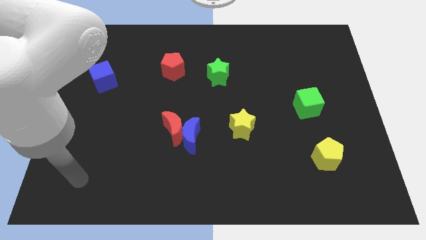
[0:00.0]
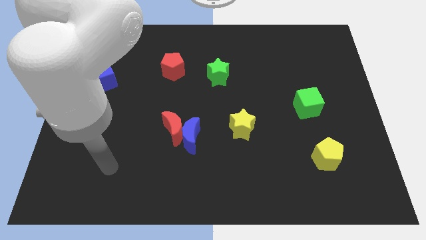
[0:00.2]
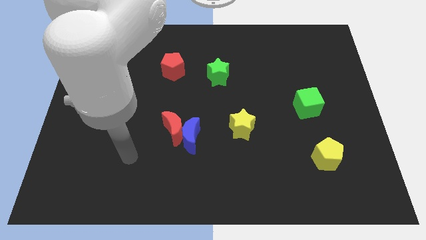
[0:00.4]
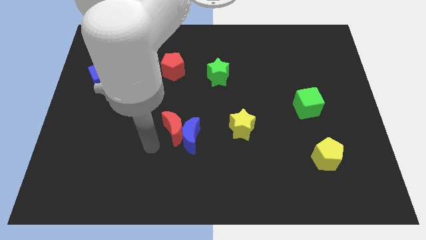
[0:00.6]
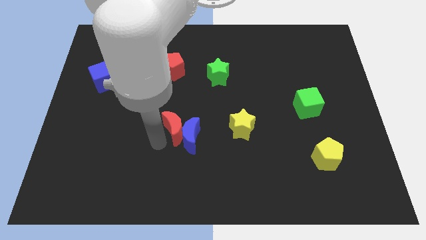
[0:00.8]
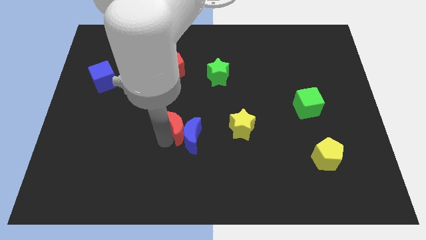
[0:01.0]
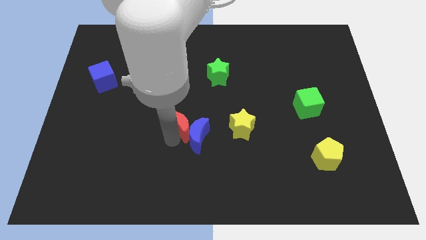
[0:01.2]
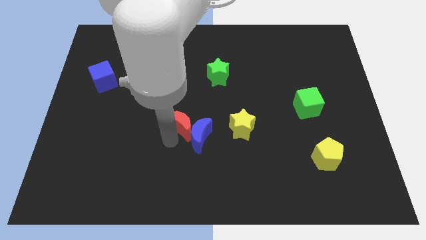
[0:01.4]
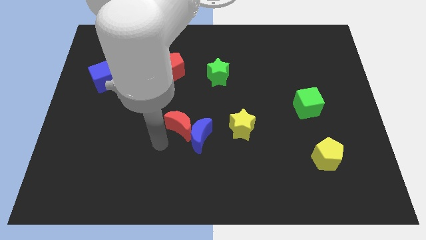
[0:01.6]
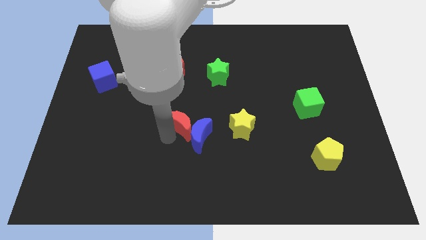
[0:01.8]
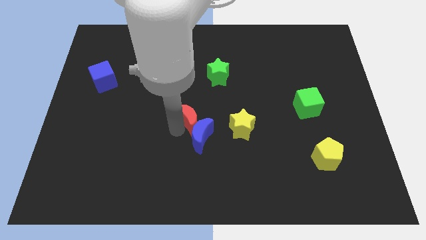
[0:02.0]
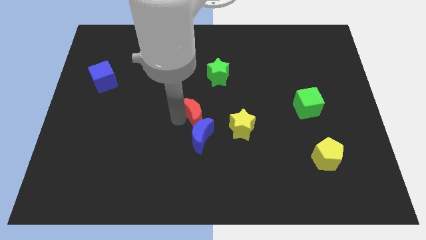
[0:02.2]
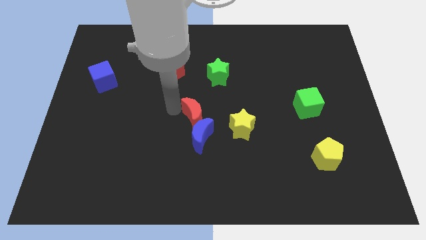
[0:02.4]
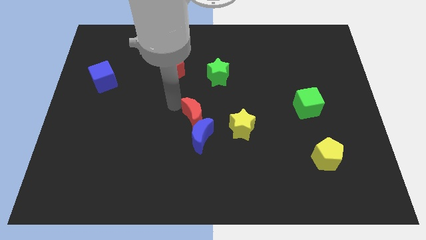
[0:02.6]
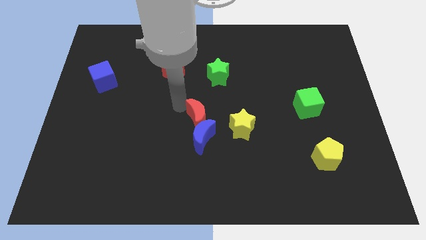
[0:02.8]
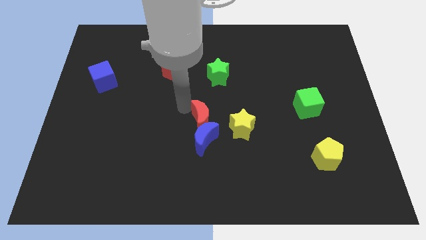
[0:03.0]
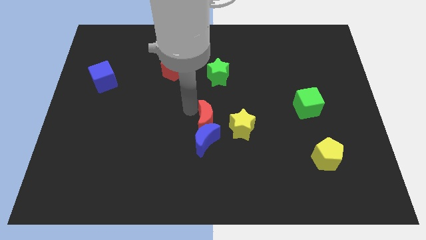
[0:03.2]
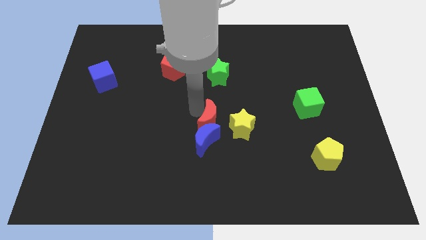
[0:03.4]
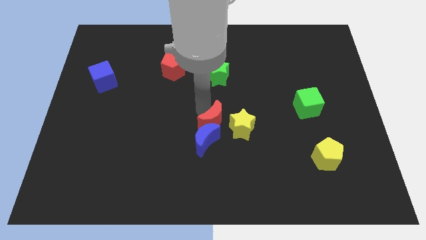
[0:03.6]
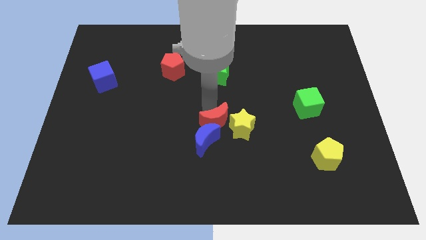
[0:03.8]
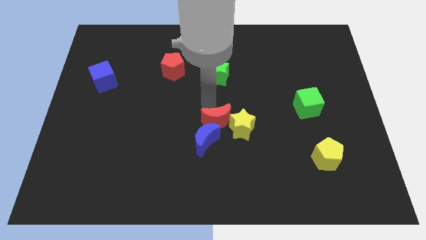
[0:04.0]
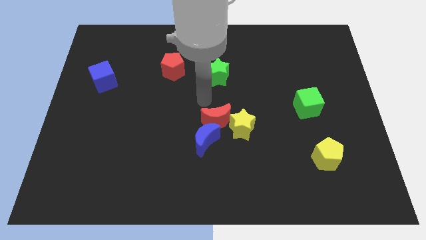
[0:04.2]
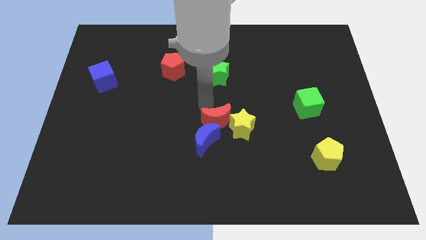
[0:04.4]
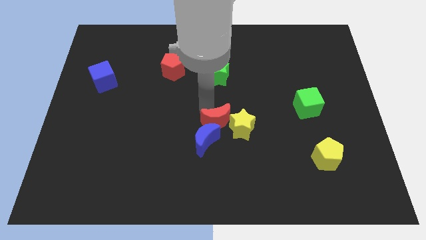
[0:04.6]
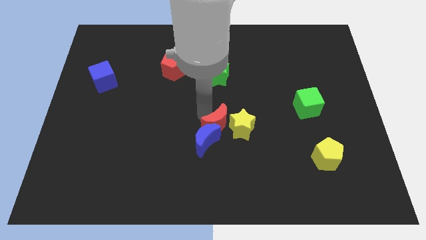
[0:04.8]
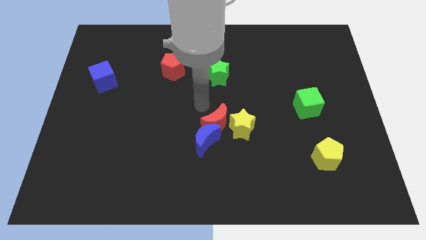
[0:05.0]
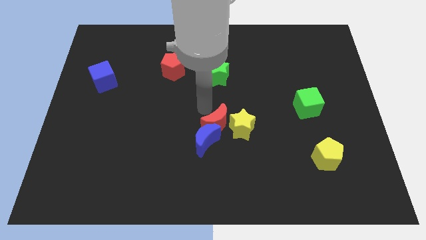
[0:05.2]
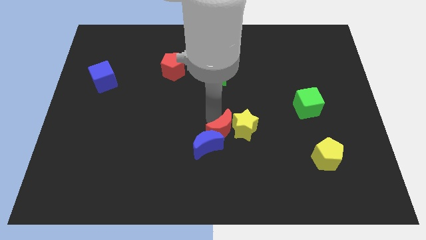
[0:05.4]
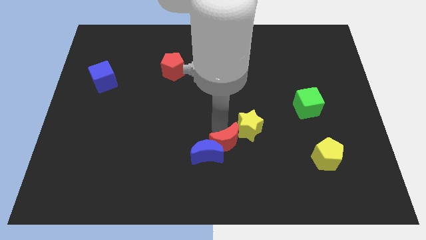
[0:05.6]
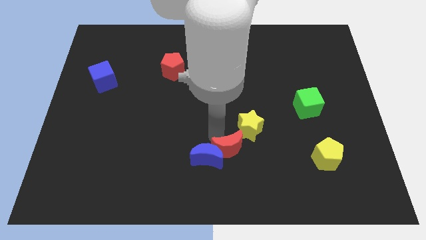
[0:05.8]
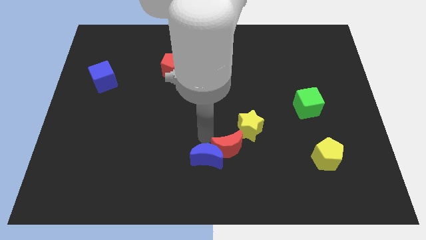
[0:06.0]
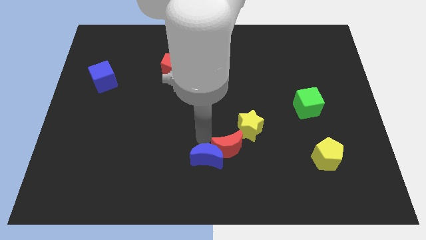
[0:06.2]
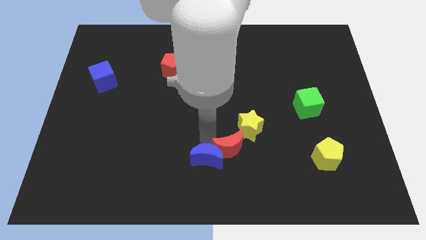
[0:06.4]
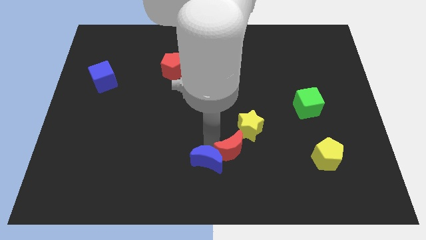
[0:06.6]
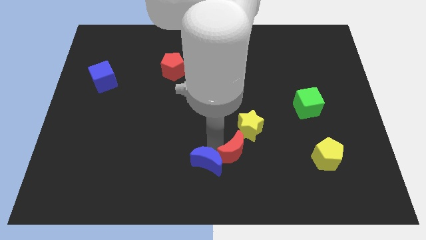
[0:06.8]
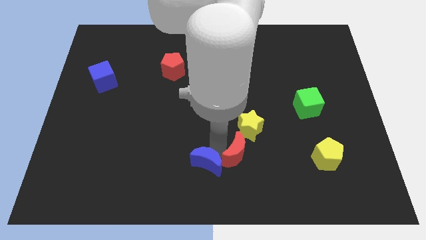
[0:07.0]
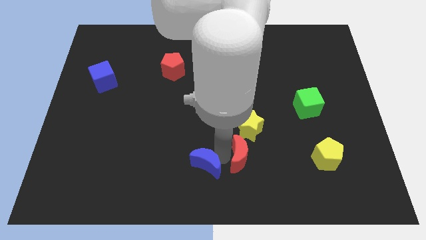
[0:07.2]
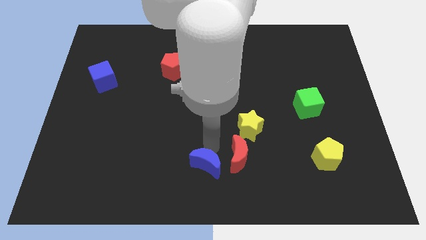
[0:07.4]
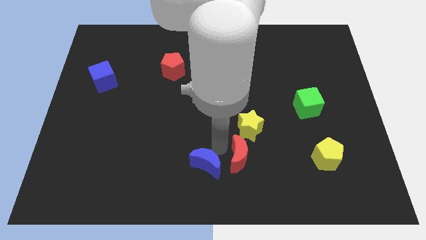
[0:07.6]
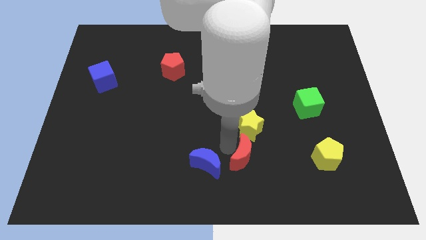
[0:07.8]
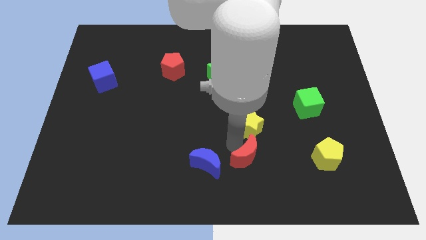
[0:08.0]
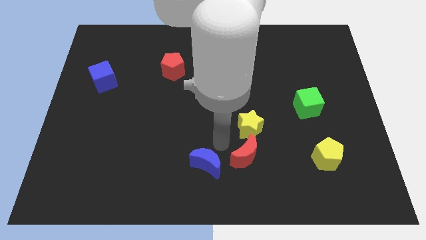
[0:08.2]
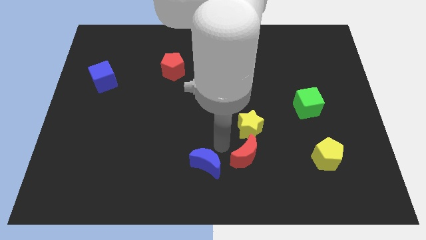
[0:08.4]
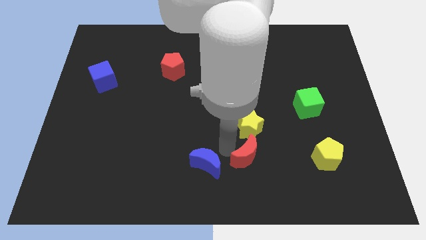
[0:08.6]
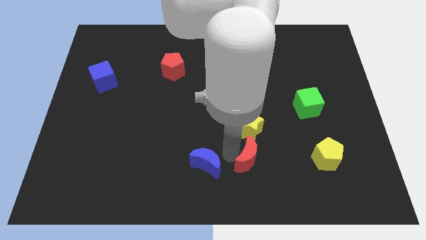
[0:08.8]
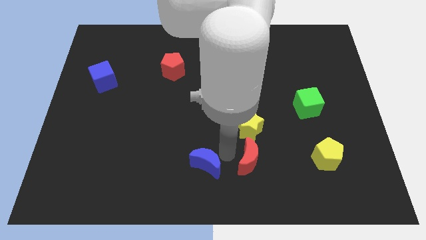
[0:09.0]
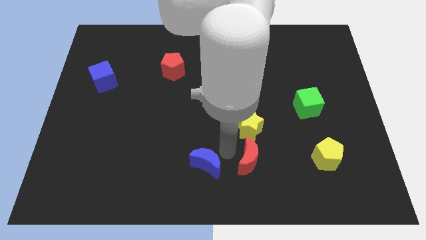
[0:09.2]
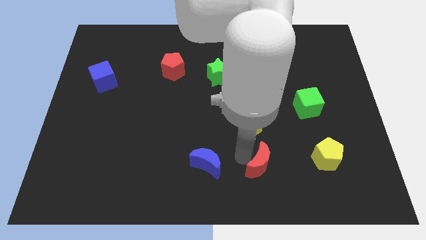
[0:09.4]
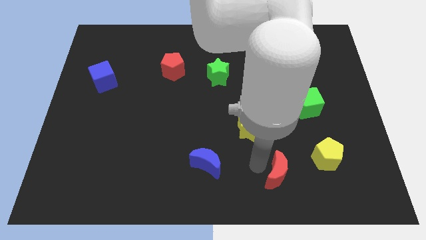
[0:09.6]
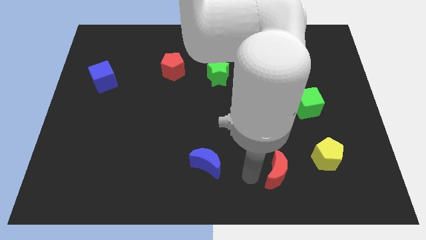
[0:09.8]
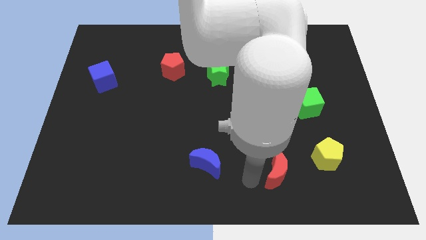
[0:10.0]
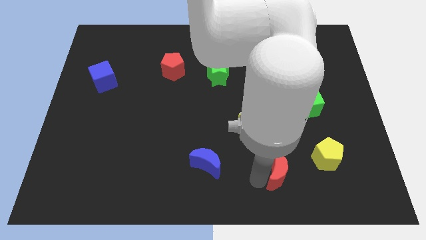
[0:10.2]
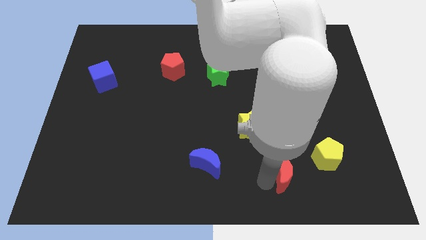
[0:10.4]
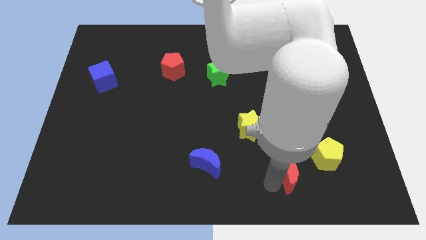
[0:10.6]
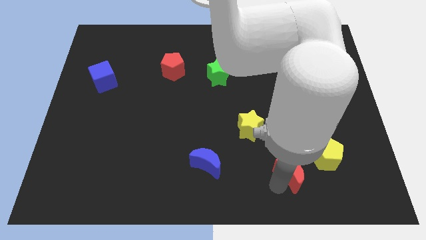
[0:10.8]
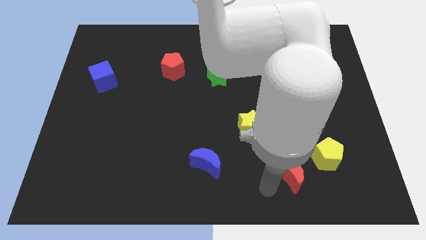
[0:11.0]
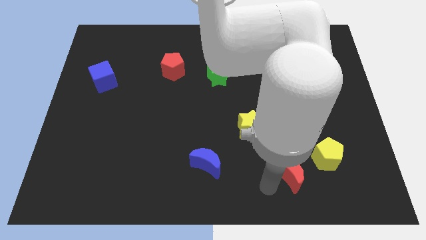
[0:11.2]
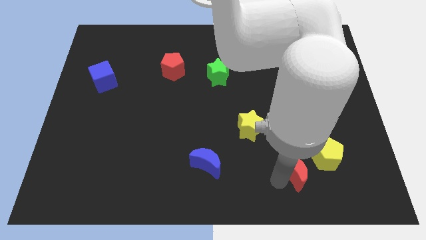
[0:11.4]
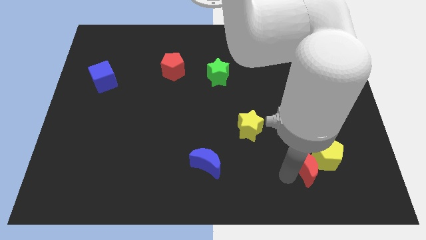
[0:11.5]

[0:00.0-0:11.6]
slide the red moon to the yellow pentagon

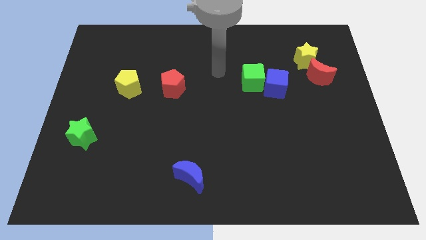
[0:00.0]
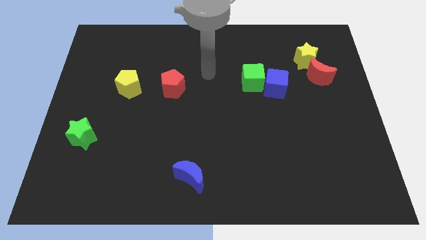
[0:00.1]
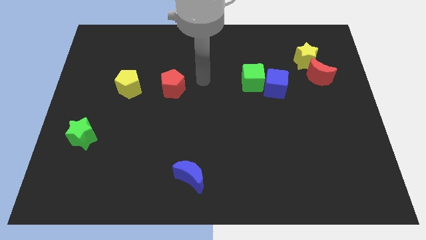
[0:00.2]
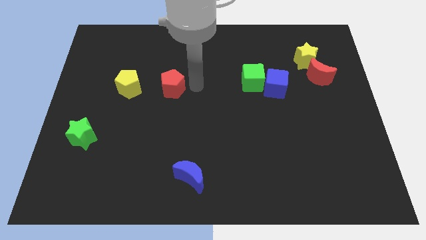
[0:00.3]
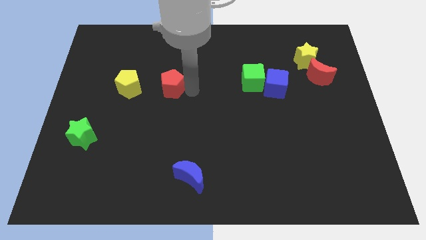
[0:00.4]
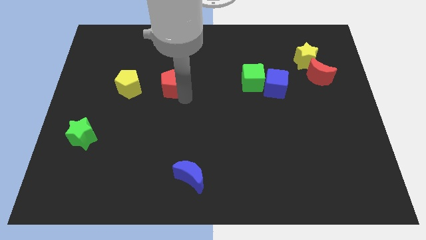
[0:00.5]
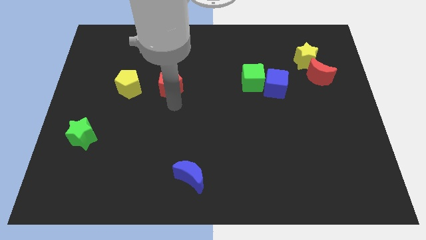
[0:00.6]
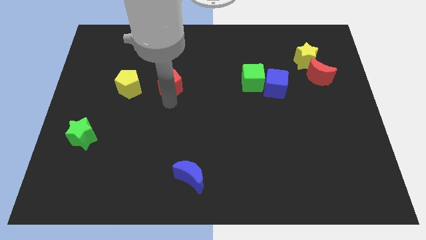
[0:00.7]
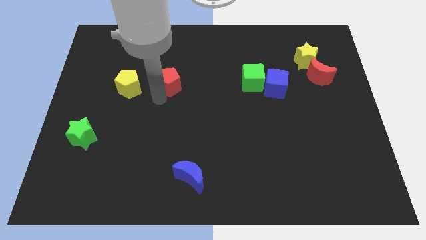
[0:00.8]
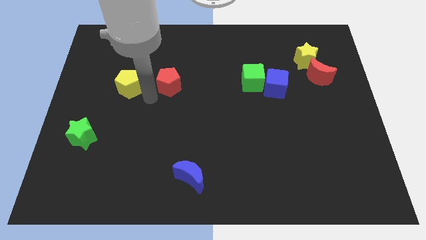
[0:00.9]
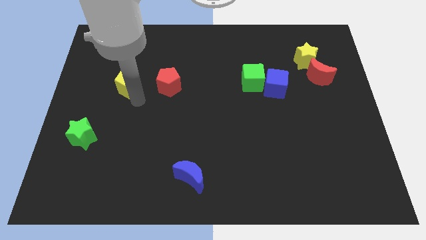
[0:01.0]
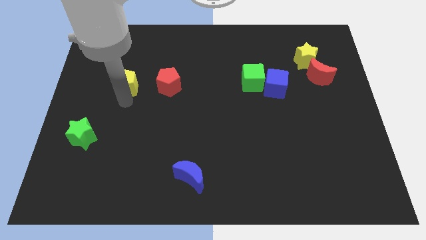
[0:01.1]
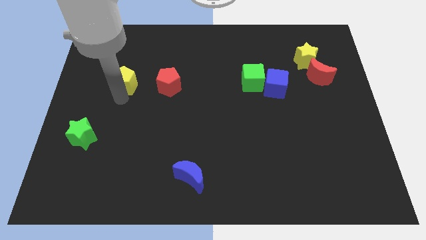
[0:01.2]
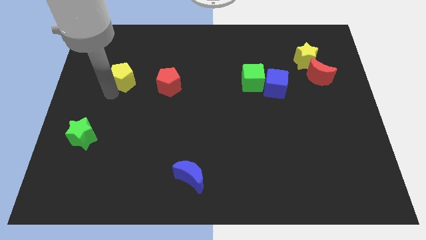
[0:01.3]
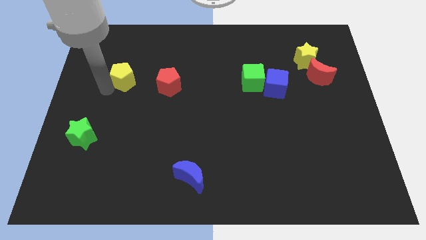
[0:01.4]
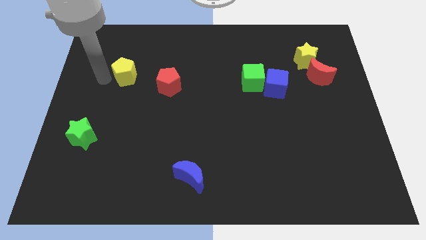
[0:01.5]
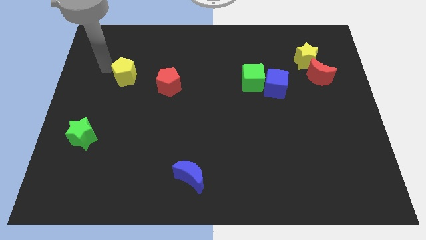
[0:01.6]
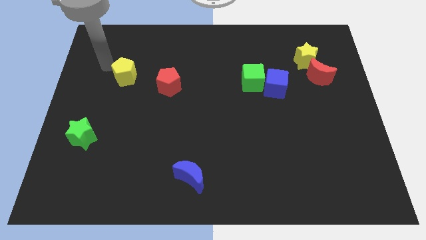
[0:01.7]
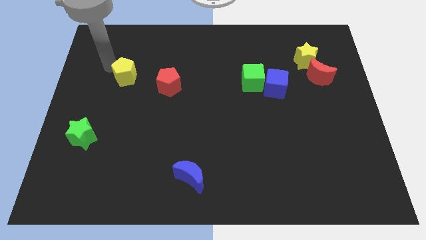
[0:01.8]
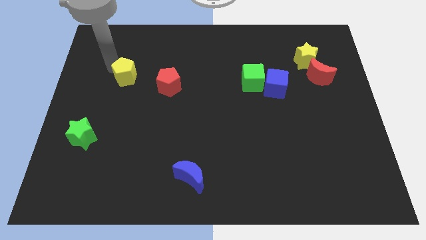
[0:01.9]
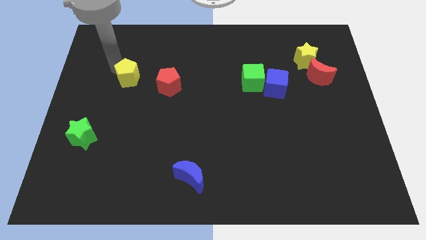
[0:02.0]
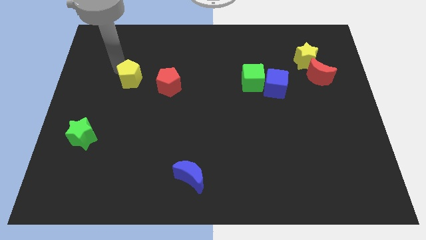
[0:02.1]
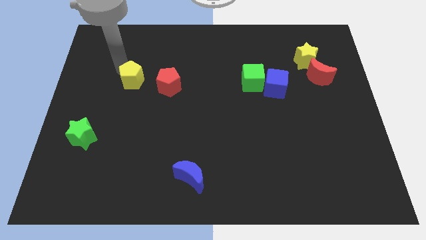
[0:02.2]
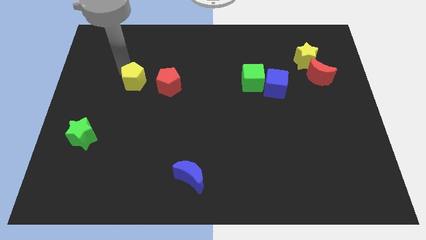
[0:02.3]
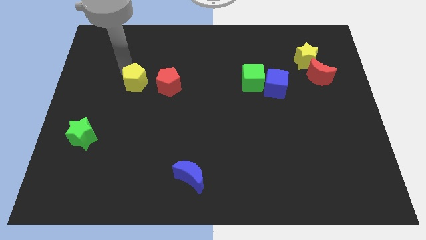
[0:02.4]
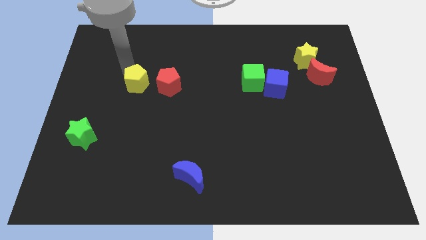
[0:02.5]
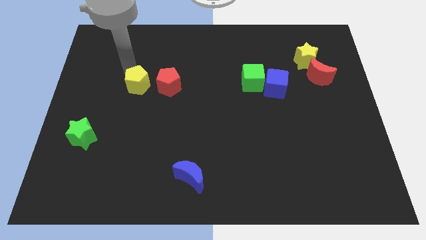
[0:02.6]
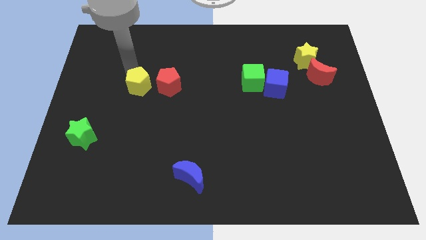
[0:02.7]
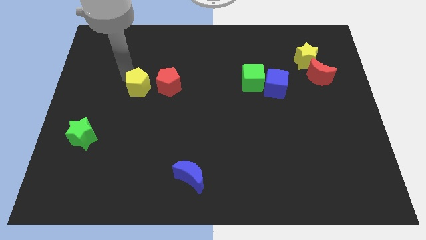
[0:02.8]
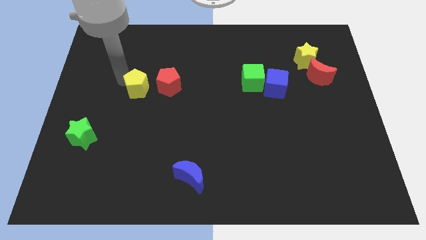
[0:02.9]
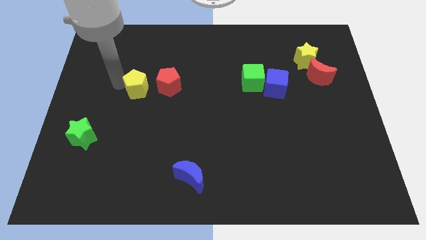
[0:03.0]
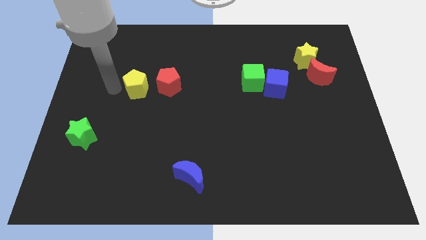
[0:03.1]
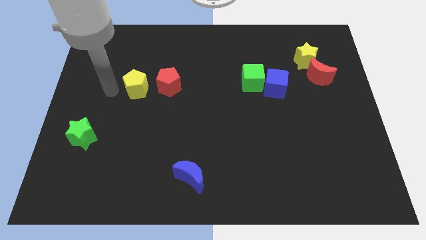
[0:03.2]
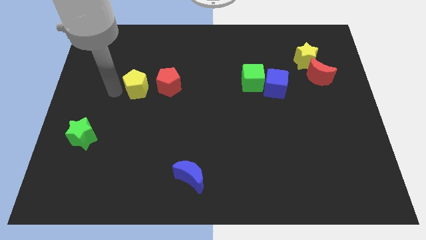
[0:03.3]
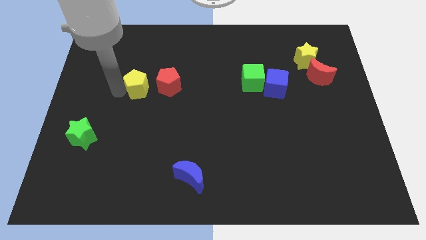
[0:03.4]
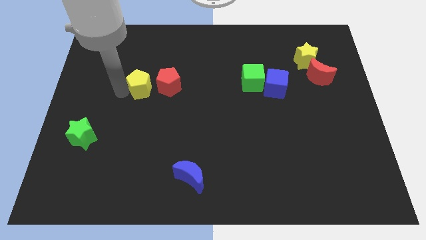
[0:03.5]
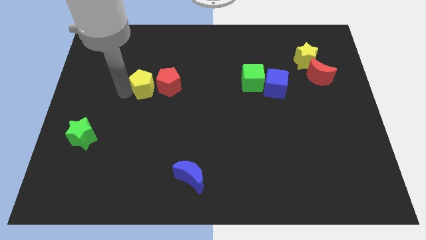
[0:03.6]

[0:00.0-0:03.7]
move the yellow pentagon next to the red pentagon
